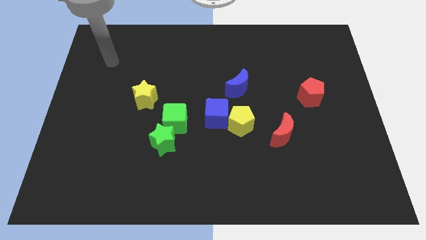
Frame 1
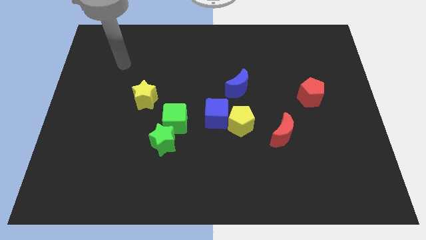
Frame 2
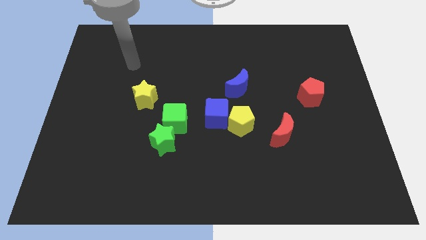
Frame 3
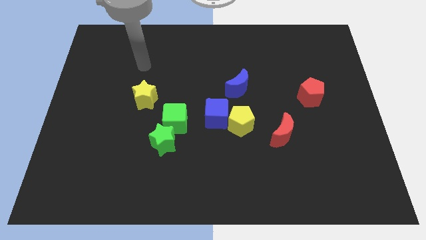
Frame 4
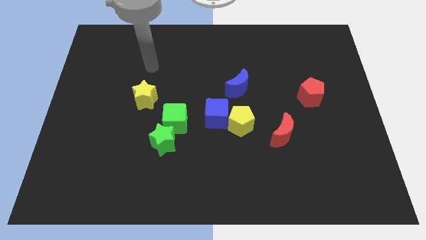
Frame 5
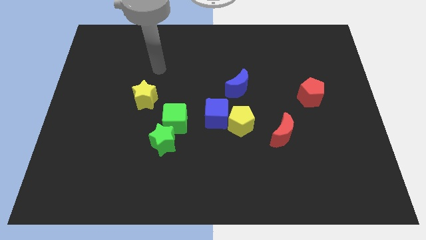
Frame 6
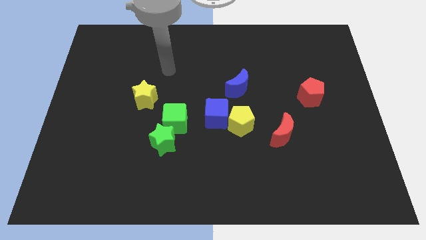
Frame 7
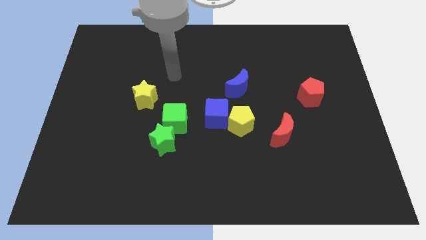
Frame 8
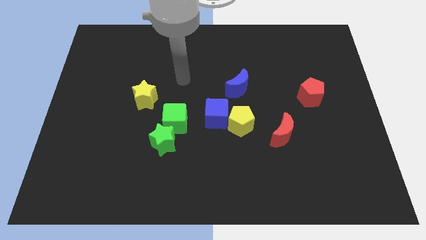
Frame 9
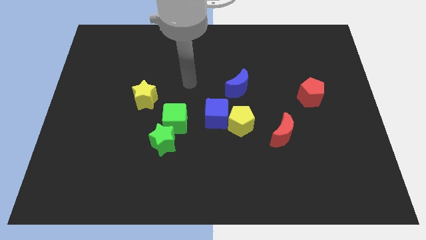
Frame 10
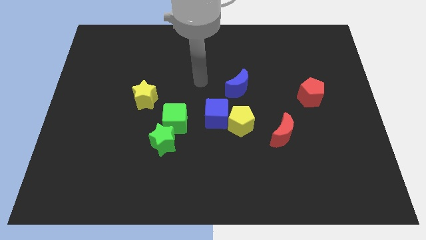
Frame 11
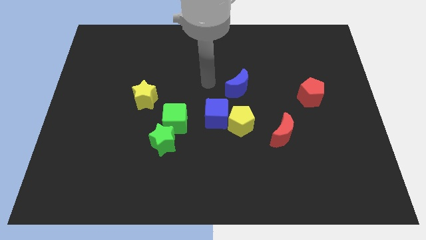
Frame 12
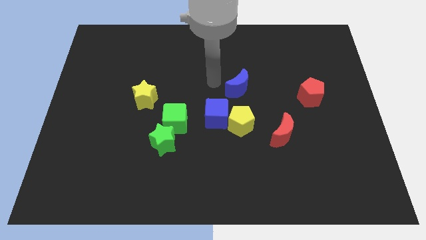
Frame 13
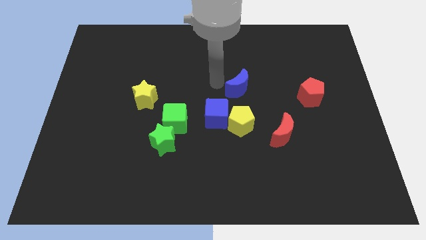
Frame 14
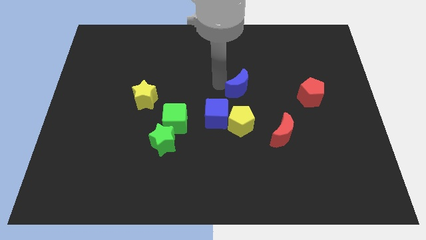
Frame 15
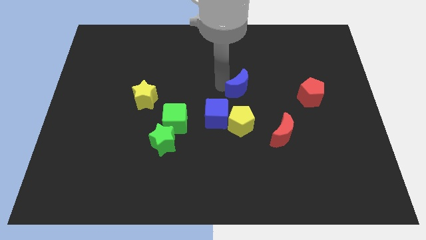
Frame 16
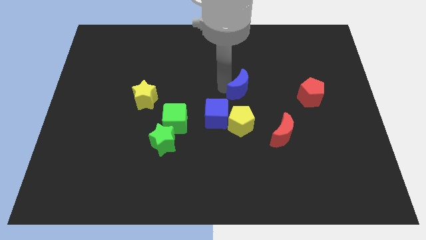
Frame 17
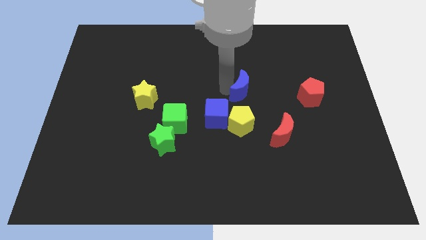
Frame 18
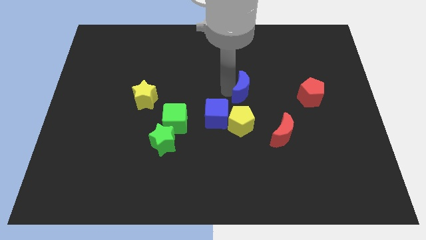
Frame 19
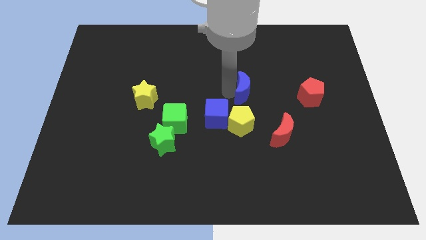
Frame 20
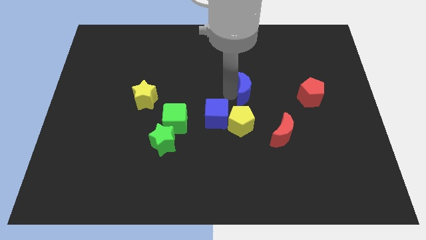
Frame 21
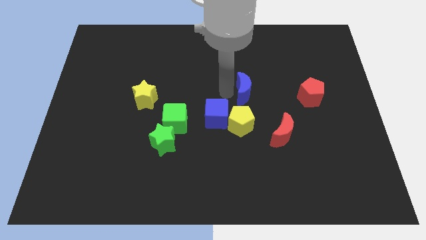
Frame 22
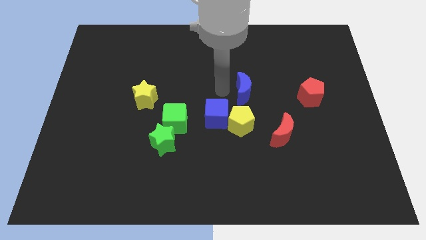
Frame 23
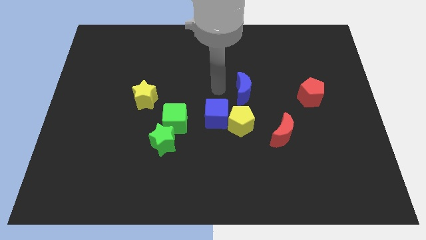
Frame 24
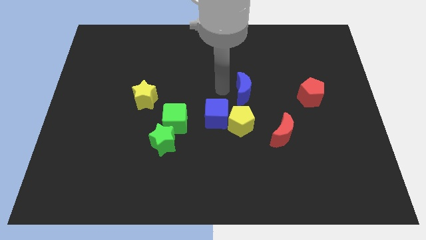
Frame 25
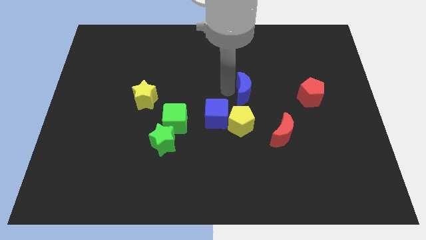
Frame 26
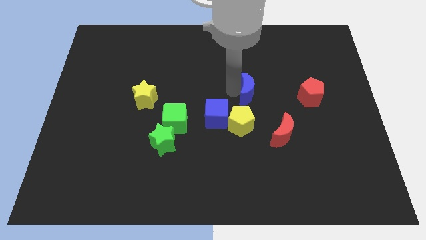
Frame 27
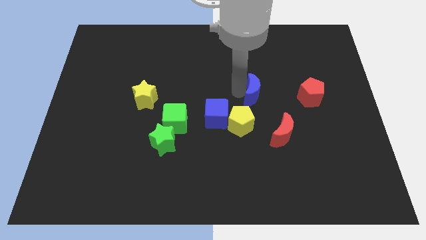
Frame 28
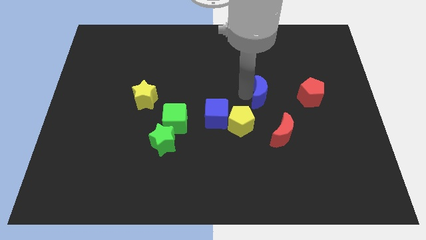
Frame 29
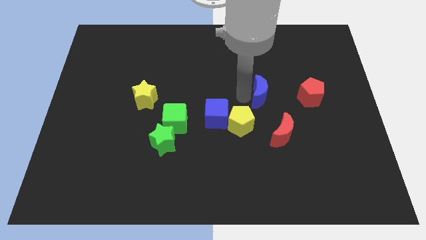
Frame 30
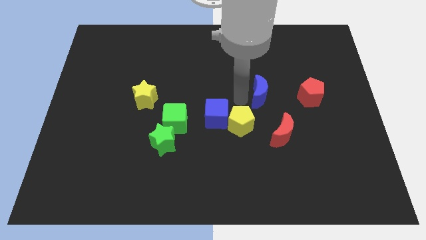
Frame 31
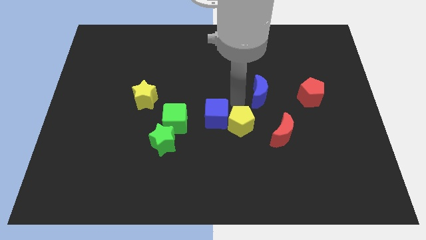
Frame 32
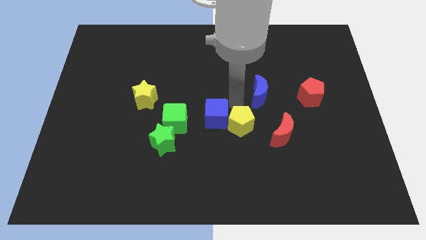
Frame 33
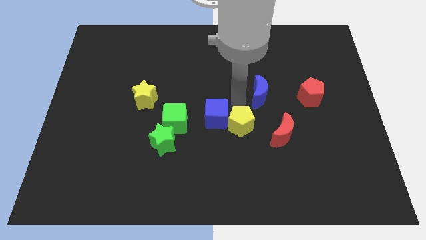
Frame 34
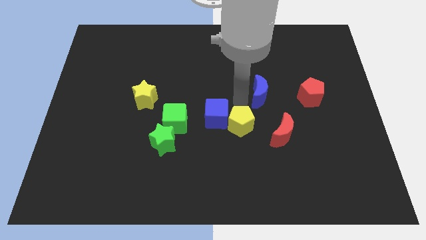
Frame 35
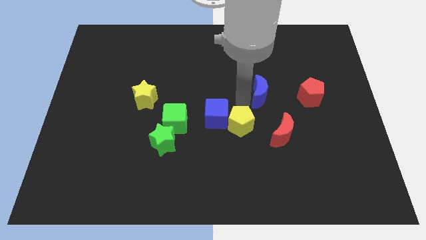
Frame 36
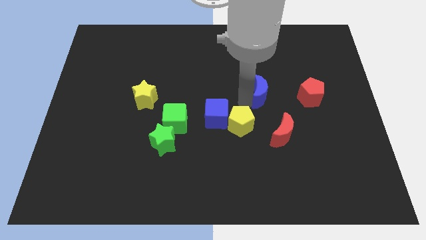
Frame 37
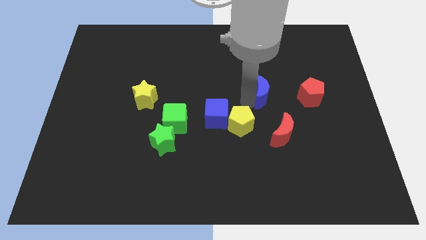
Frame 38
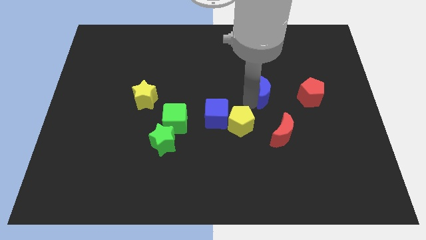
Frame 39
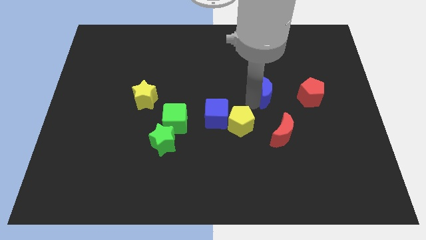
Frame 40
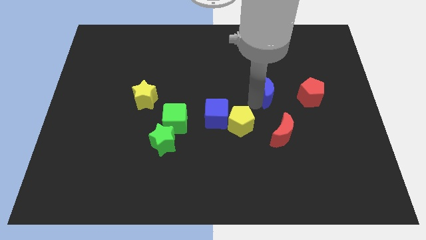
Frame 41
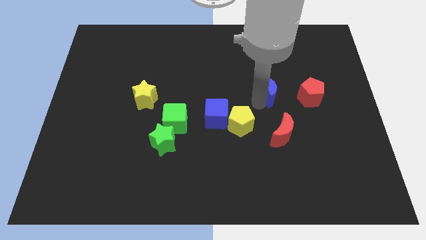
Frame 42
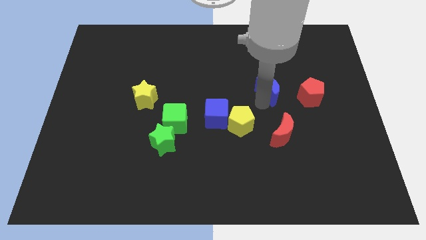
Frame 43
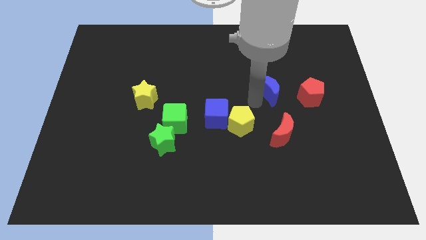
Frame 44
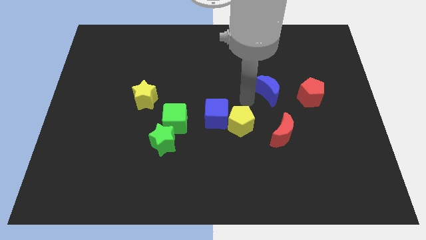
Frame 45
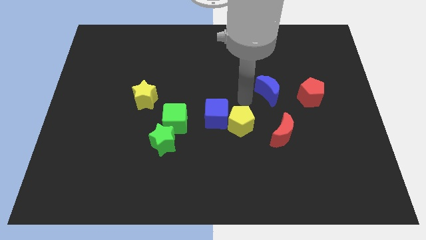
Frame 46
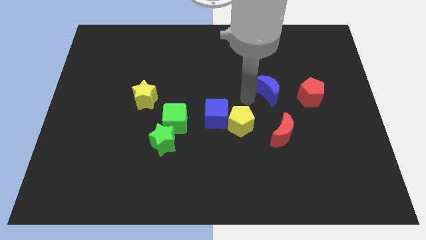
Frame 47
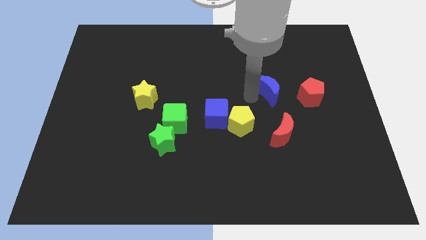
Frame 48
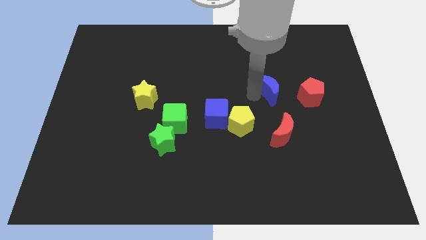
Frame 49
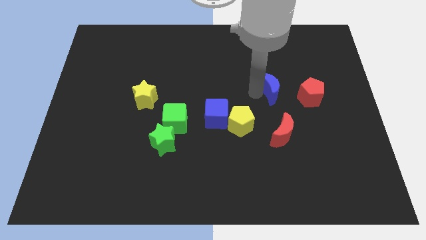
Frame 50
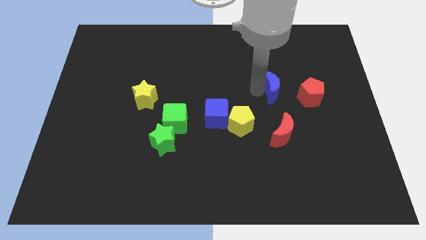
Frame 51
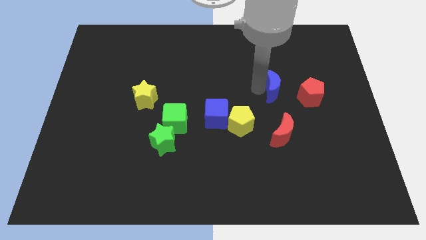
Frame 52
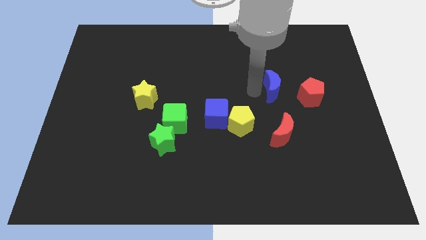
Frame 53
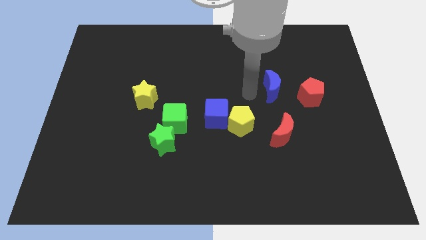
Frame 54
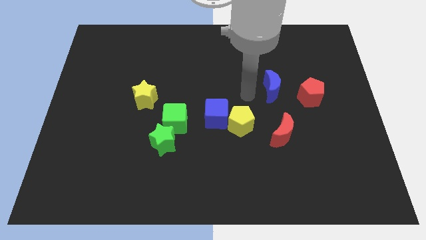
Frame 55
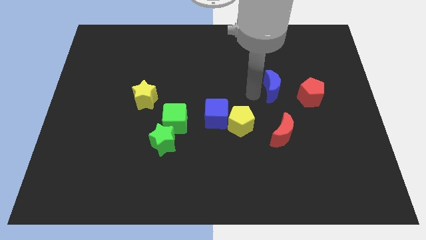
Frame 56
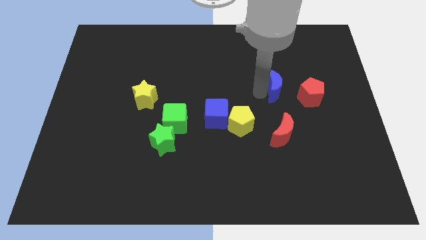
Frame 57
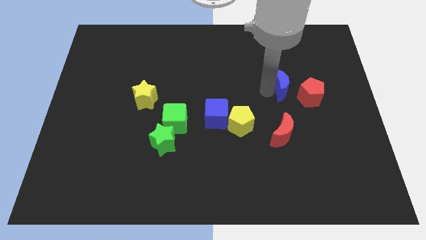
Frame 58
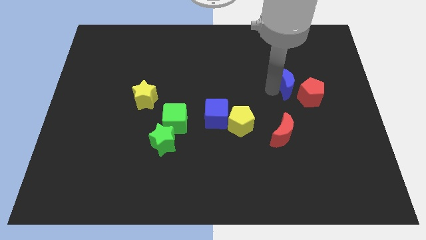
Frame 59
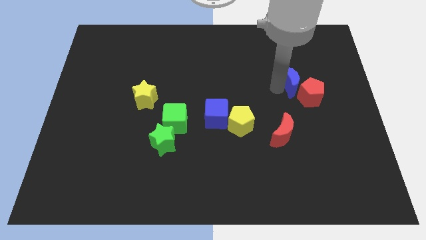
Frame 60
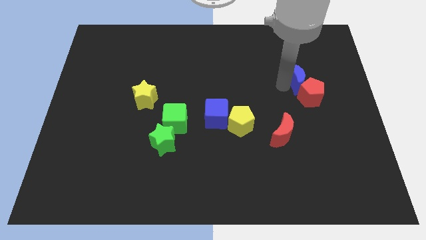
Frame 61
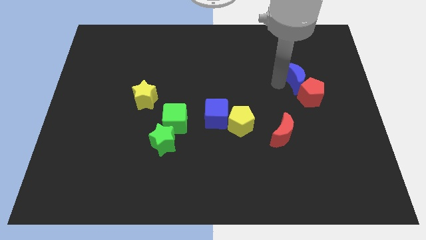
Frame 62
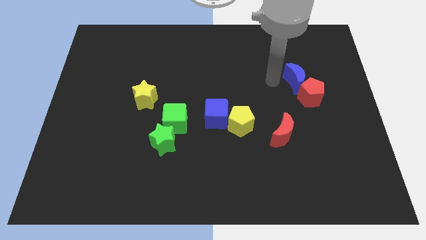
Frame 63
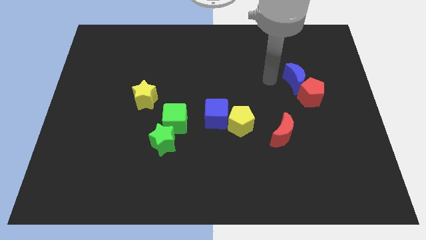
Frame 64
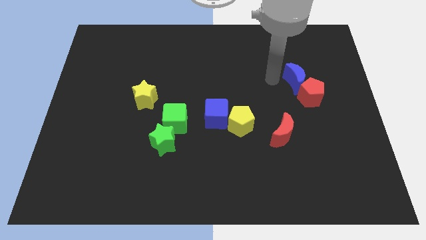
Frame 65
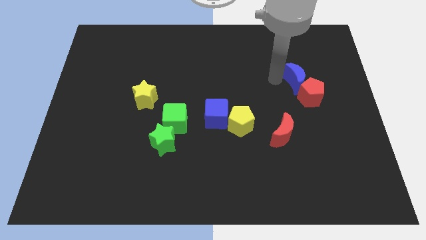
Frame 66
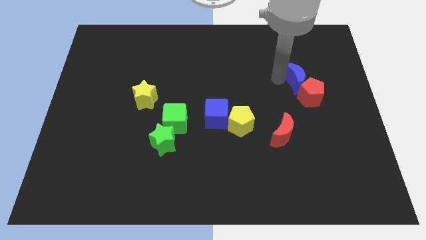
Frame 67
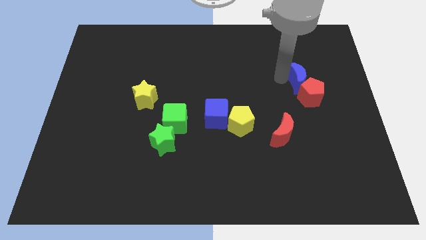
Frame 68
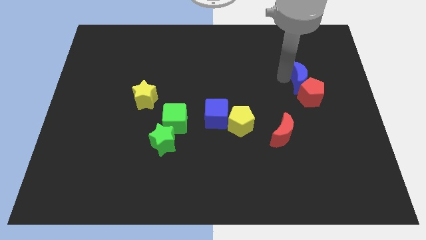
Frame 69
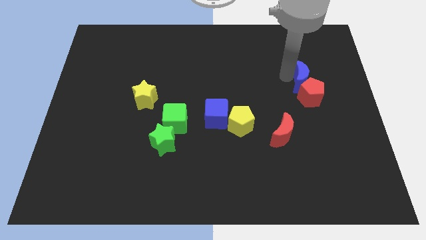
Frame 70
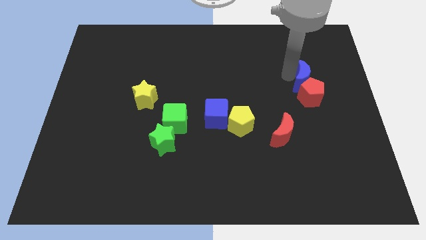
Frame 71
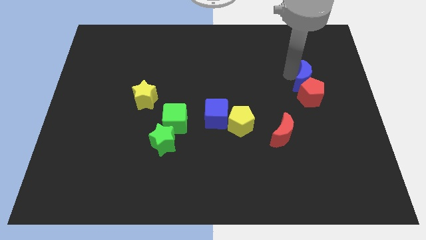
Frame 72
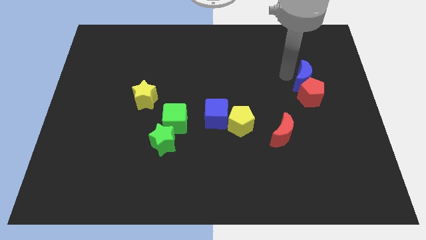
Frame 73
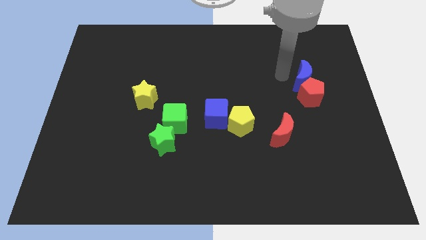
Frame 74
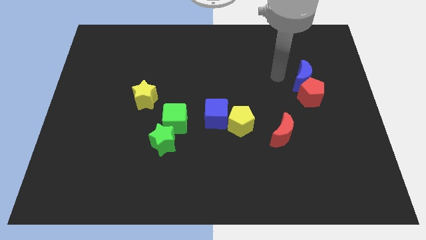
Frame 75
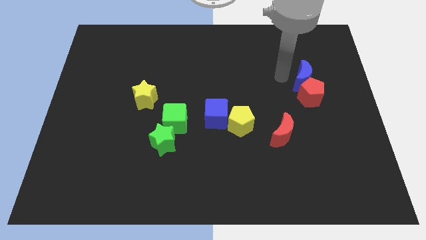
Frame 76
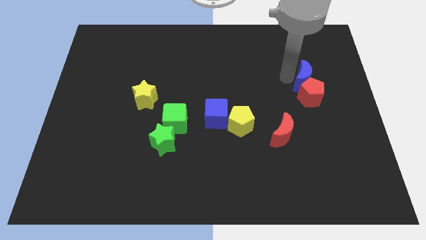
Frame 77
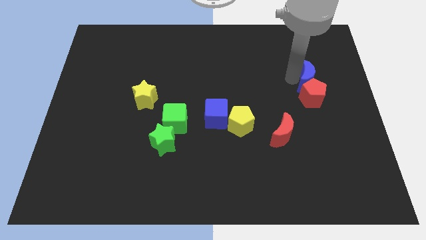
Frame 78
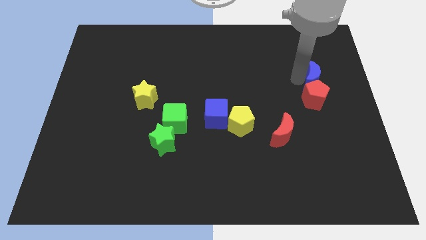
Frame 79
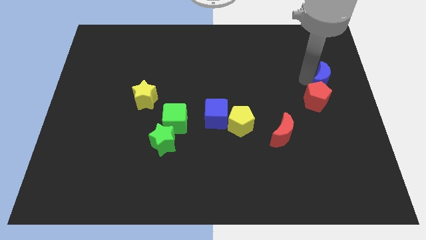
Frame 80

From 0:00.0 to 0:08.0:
move the blue moon to the right side
